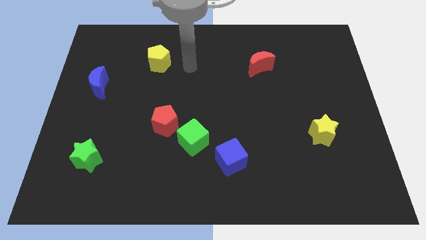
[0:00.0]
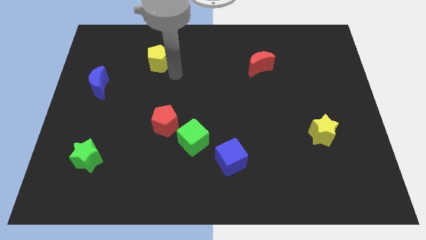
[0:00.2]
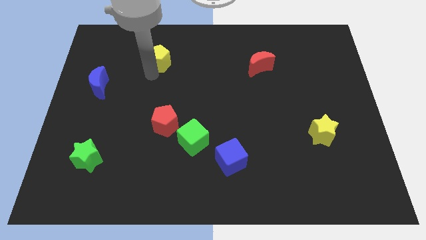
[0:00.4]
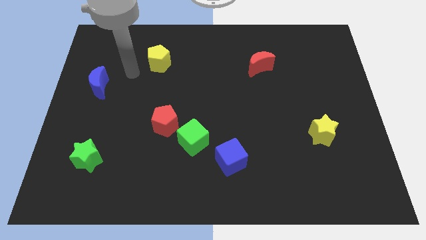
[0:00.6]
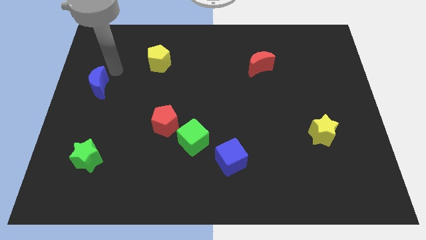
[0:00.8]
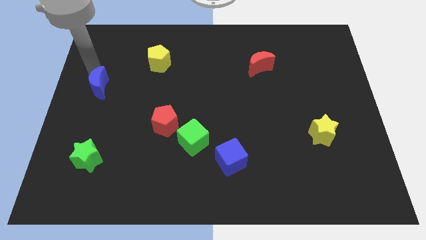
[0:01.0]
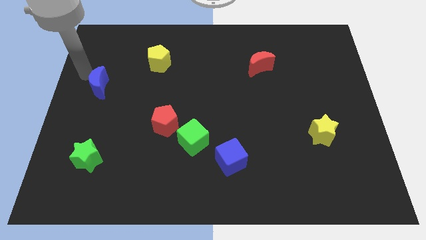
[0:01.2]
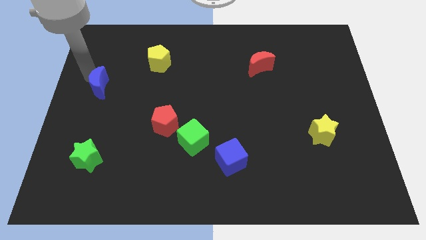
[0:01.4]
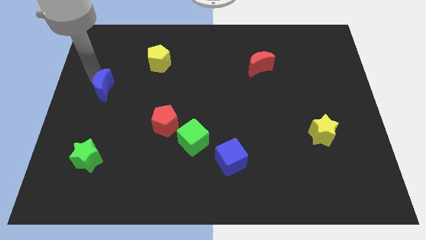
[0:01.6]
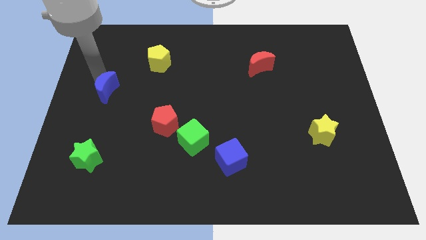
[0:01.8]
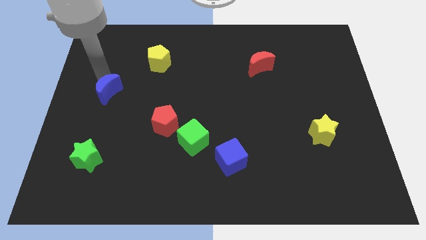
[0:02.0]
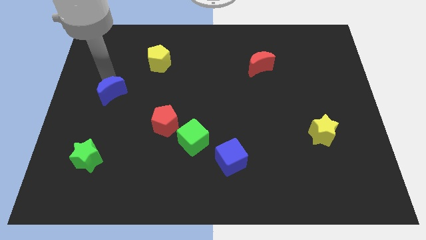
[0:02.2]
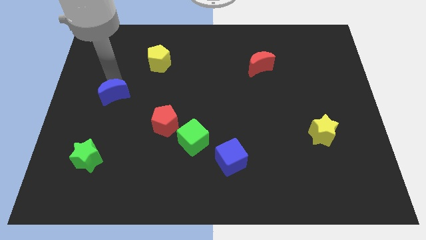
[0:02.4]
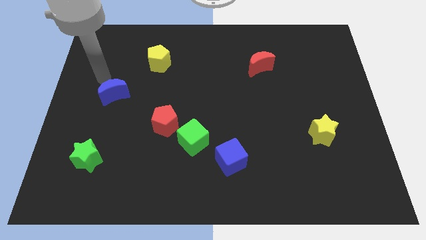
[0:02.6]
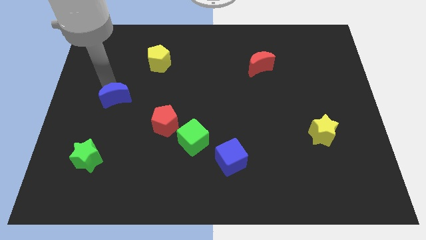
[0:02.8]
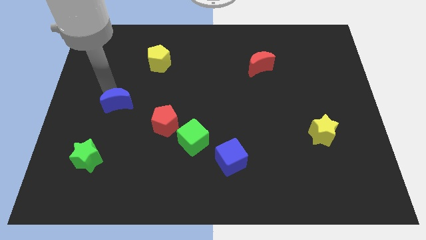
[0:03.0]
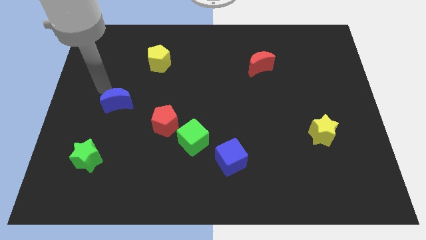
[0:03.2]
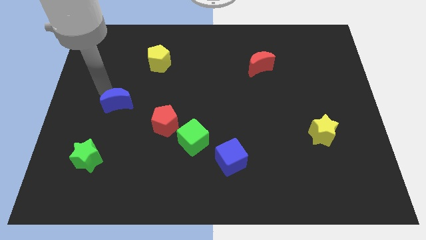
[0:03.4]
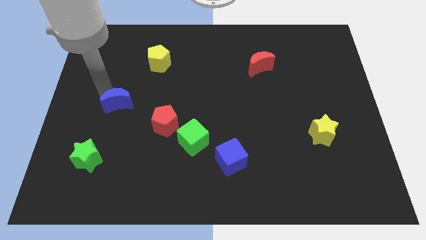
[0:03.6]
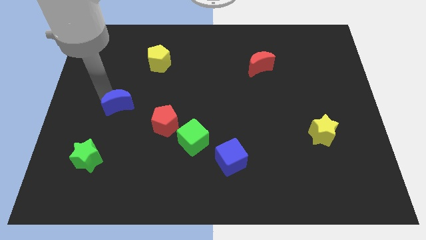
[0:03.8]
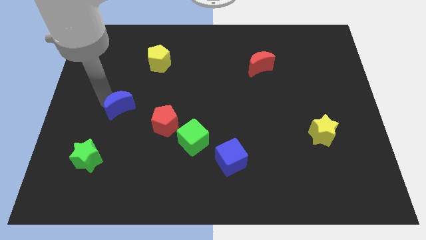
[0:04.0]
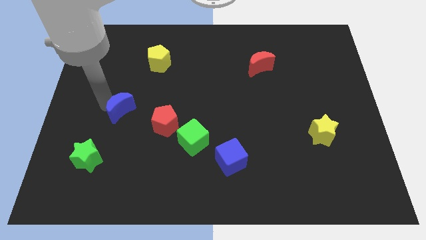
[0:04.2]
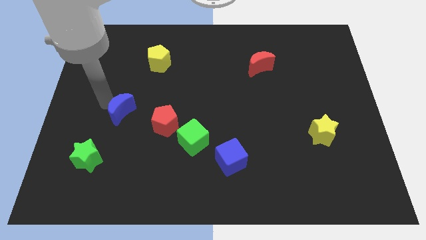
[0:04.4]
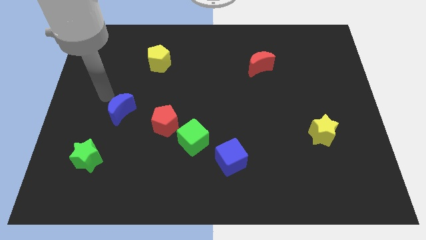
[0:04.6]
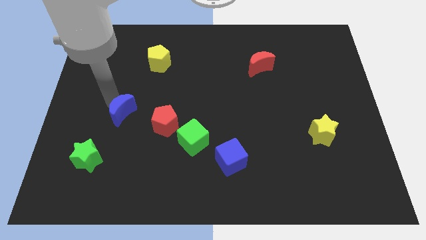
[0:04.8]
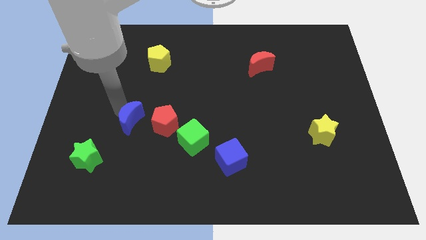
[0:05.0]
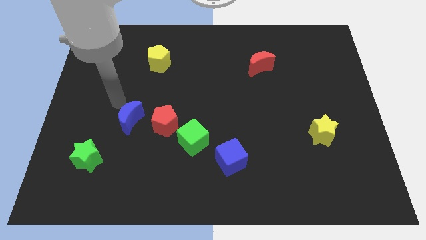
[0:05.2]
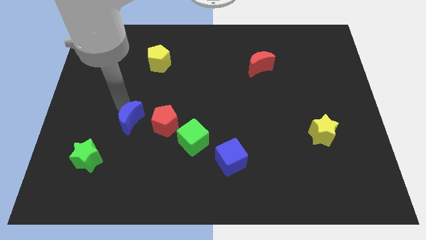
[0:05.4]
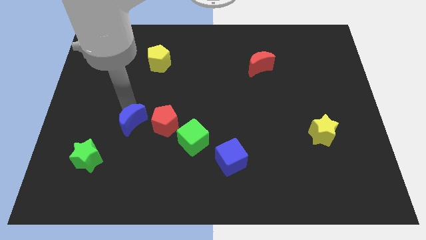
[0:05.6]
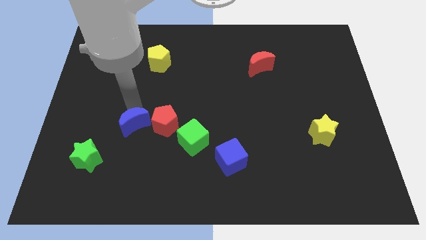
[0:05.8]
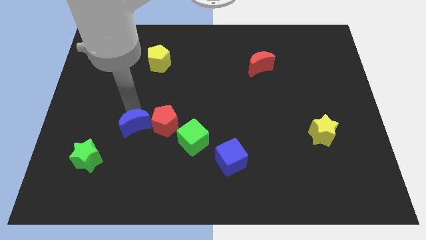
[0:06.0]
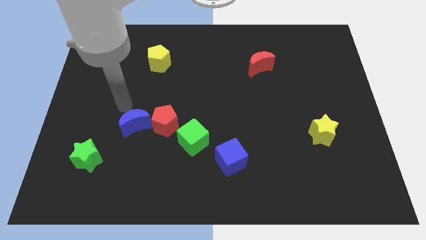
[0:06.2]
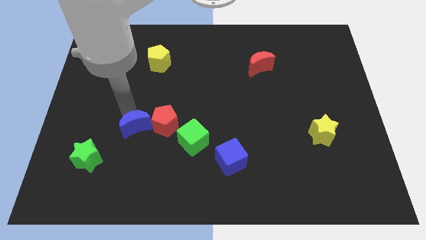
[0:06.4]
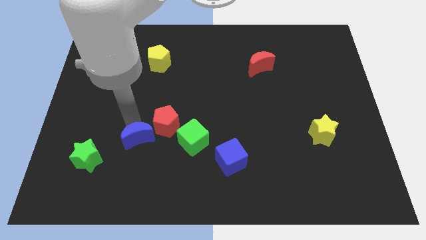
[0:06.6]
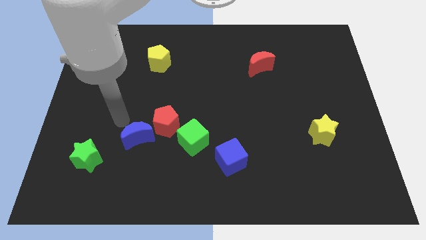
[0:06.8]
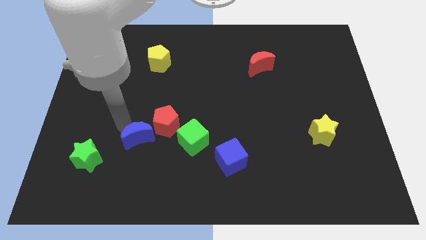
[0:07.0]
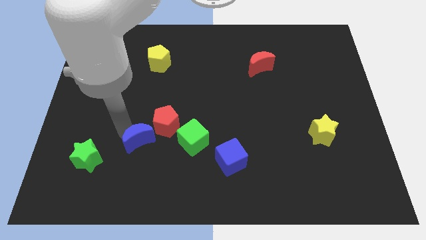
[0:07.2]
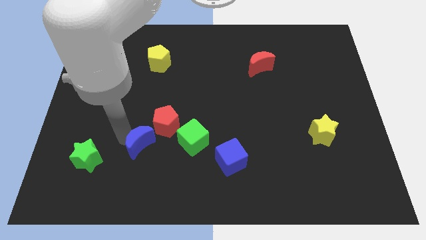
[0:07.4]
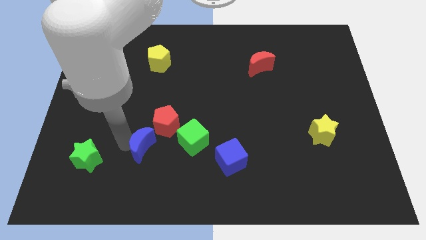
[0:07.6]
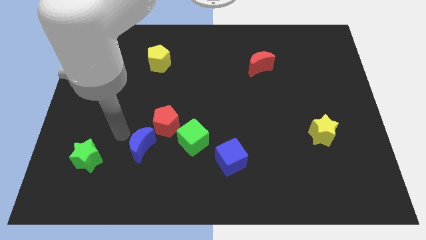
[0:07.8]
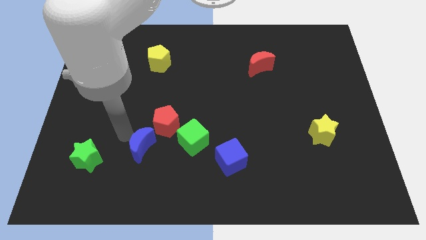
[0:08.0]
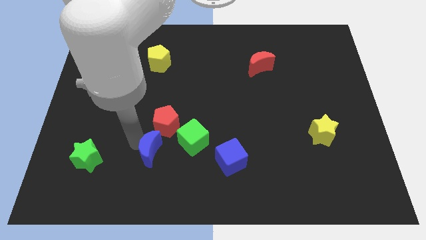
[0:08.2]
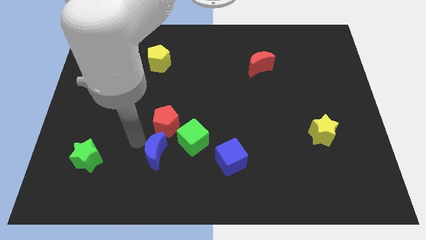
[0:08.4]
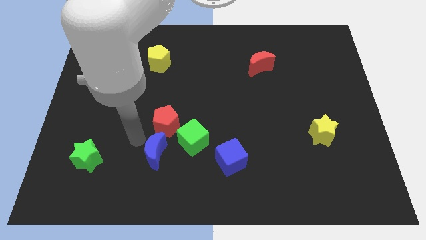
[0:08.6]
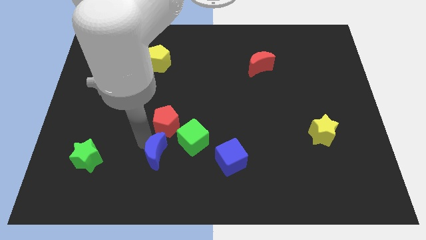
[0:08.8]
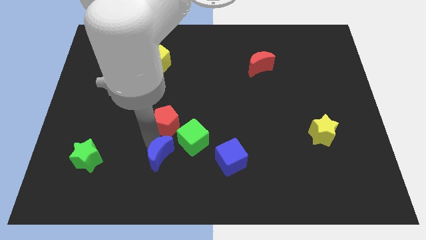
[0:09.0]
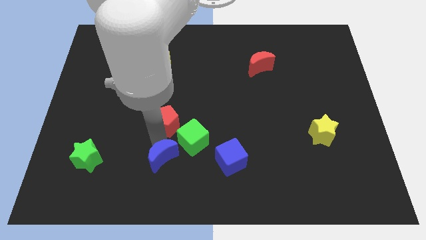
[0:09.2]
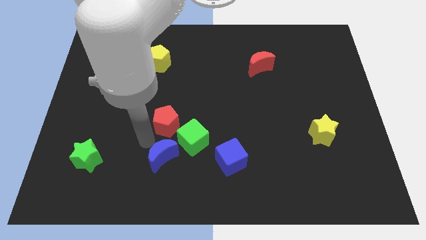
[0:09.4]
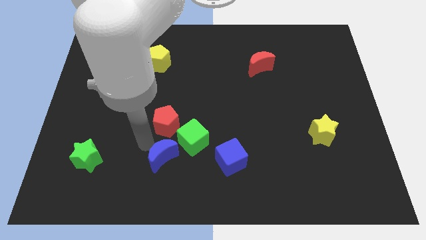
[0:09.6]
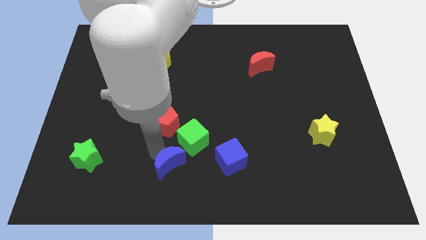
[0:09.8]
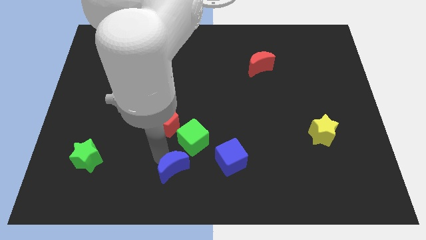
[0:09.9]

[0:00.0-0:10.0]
push the blue moon to the bottom
